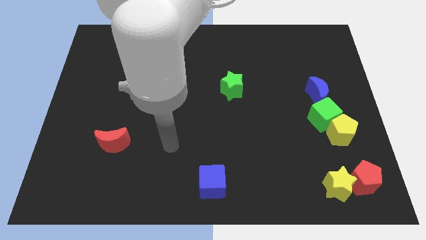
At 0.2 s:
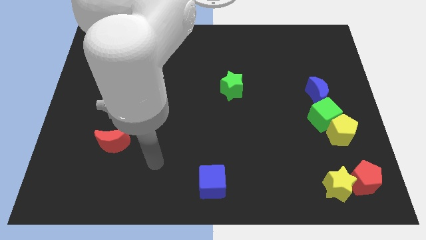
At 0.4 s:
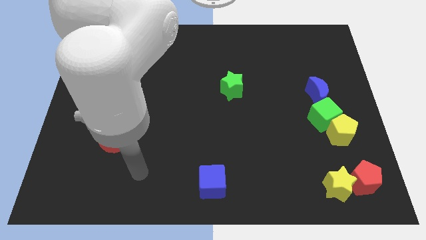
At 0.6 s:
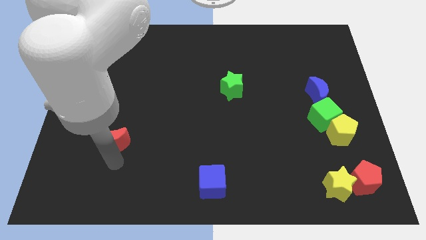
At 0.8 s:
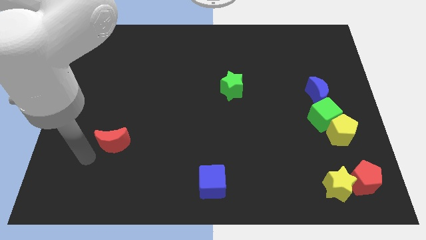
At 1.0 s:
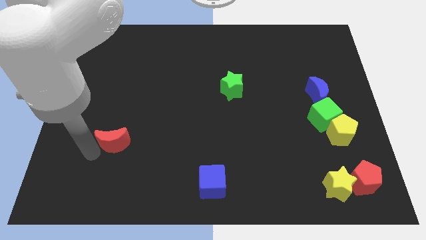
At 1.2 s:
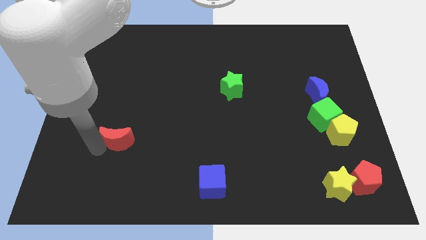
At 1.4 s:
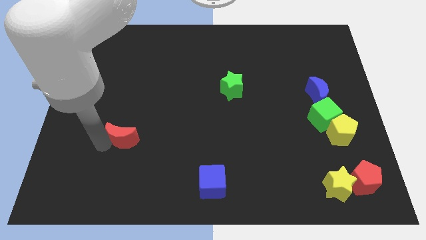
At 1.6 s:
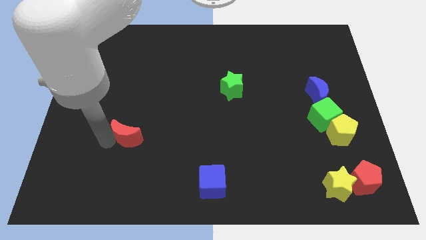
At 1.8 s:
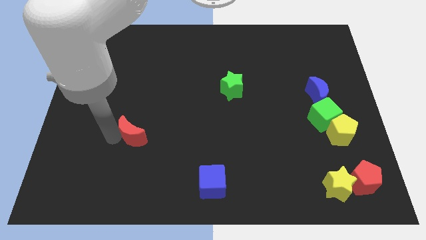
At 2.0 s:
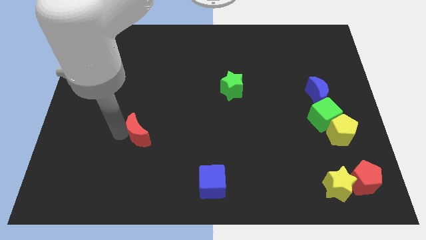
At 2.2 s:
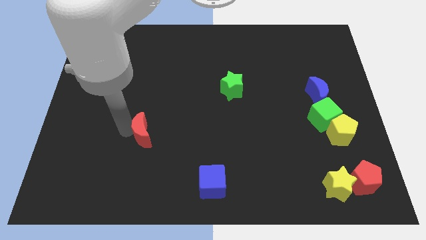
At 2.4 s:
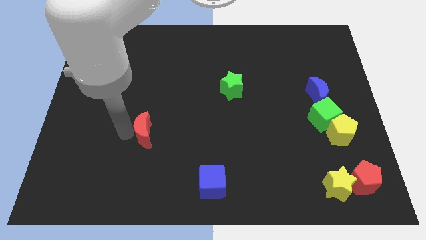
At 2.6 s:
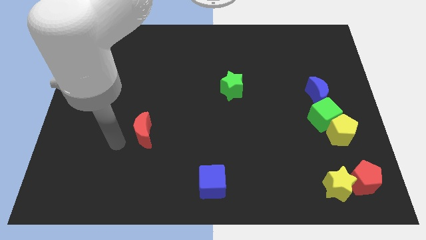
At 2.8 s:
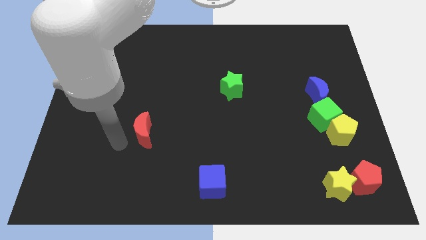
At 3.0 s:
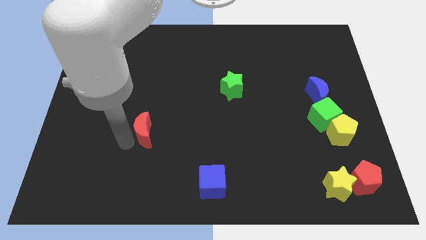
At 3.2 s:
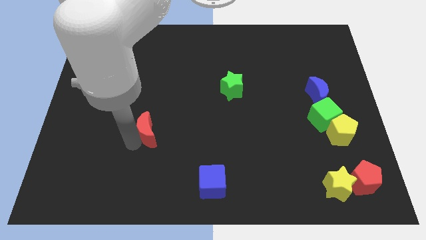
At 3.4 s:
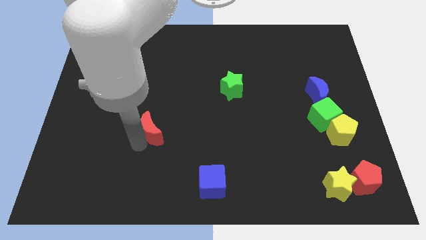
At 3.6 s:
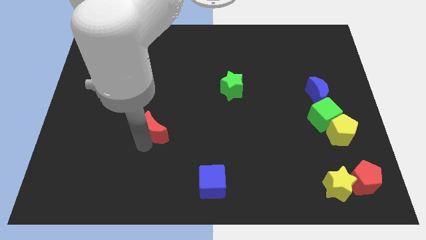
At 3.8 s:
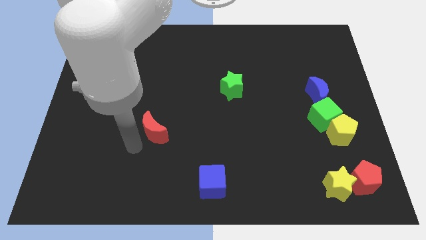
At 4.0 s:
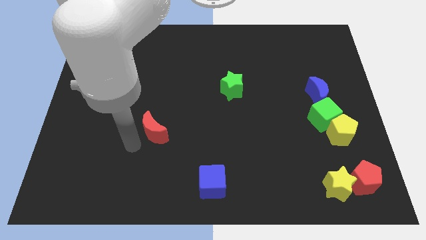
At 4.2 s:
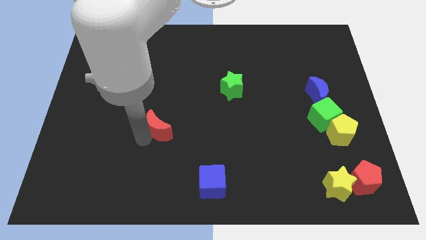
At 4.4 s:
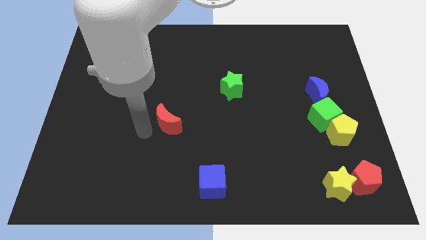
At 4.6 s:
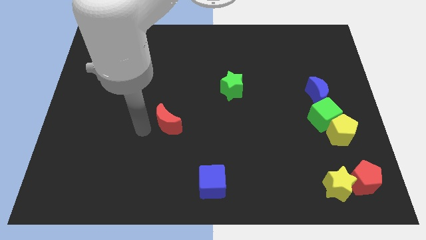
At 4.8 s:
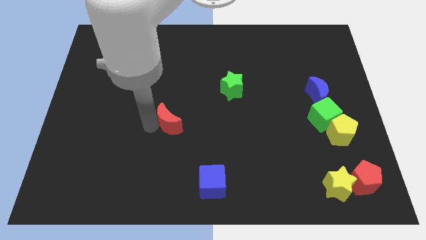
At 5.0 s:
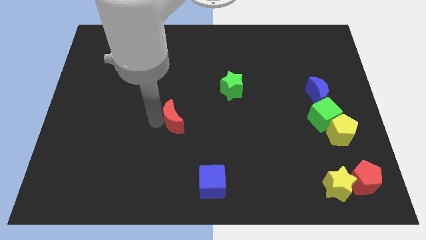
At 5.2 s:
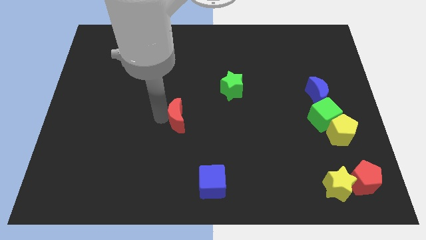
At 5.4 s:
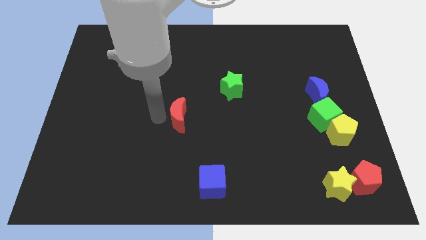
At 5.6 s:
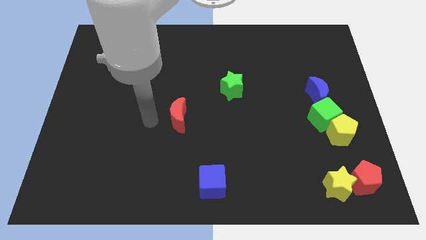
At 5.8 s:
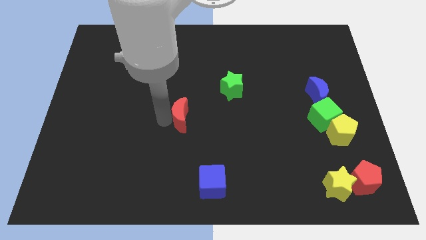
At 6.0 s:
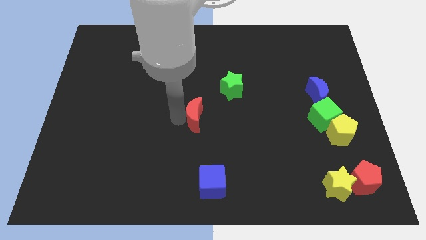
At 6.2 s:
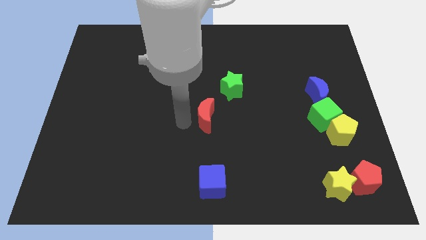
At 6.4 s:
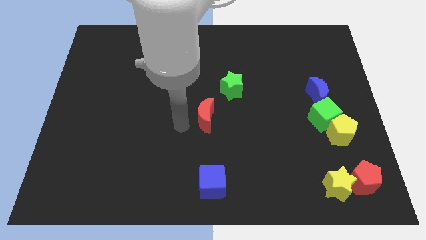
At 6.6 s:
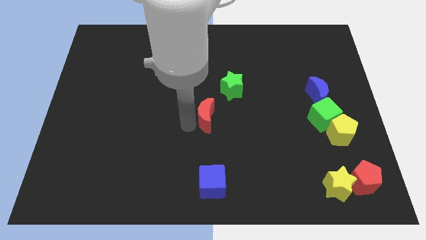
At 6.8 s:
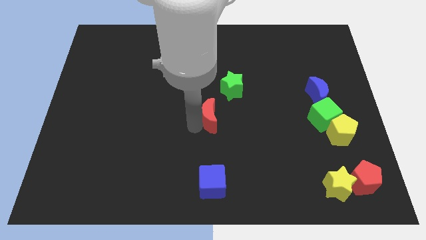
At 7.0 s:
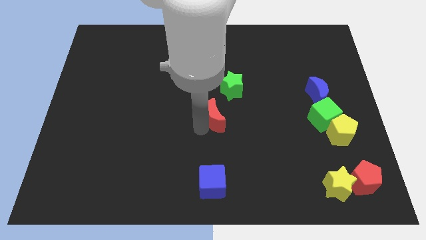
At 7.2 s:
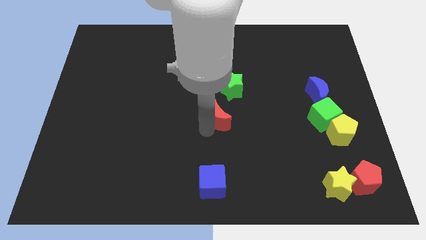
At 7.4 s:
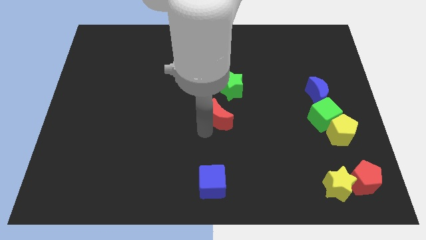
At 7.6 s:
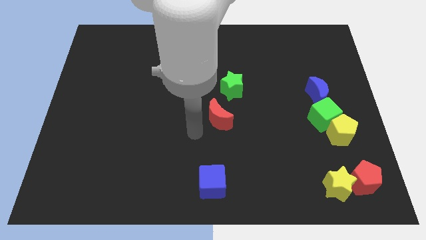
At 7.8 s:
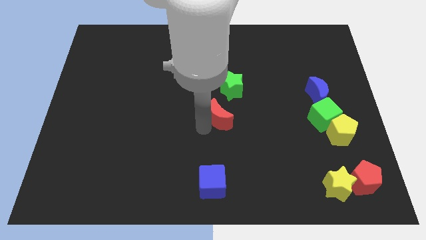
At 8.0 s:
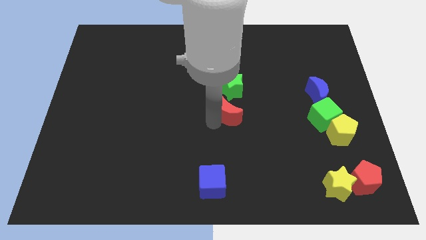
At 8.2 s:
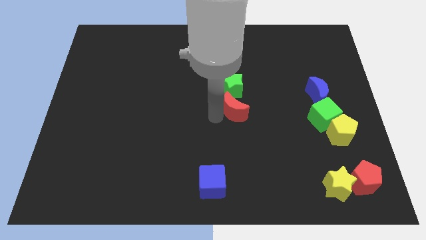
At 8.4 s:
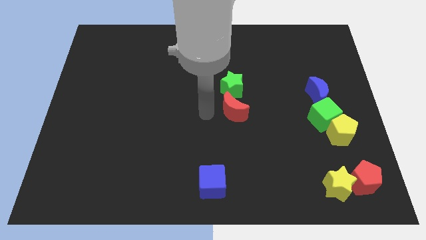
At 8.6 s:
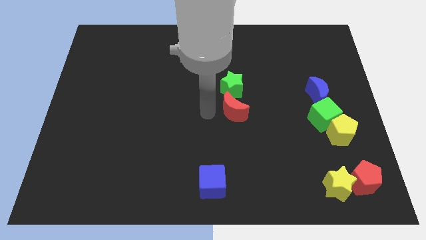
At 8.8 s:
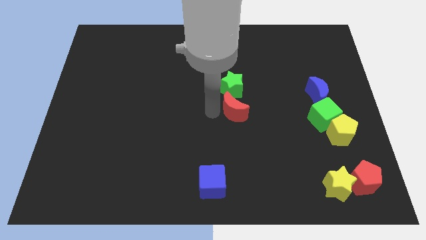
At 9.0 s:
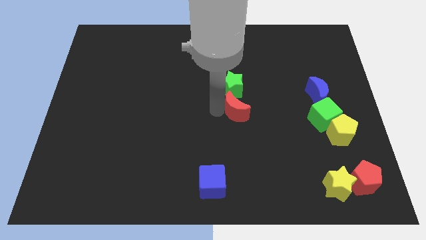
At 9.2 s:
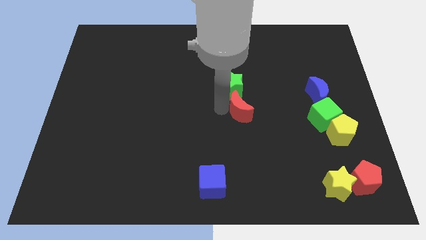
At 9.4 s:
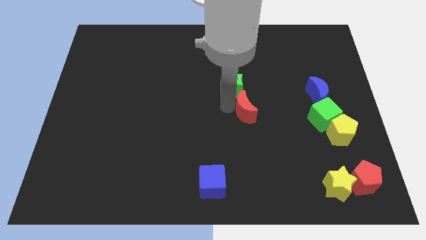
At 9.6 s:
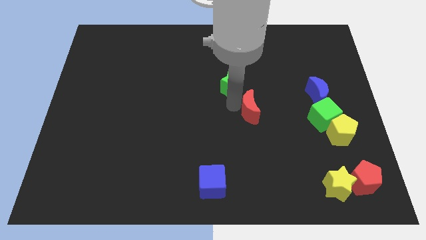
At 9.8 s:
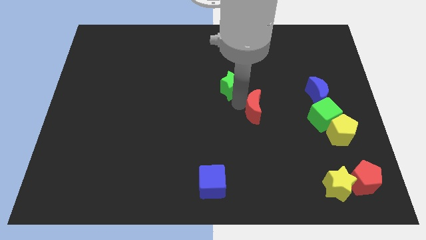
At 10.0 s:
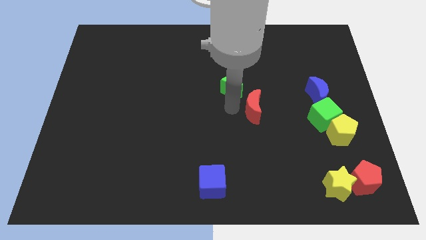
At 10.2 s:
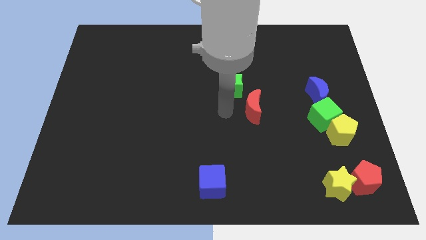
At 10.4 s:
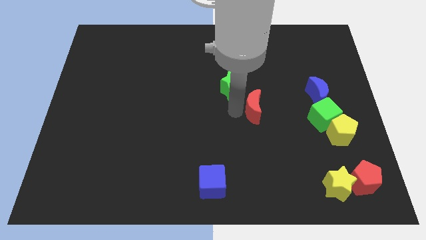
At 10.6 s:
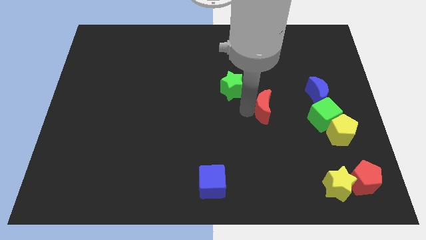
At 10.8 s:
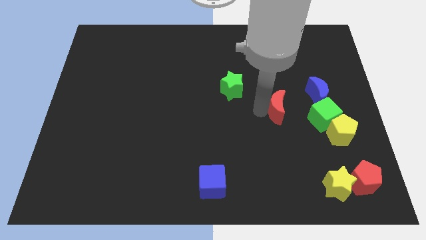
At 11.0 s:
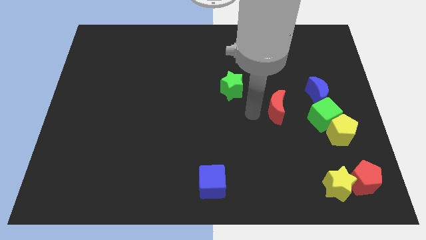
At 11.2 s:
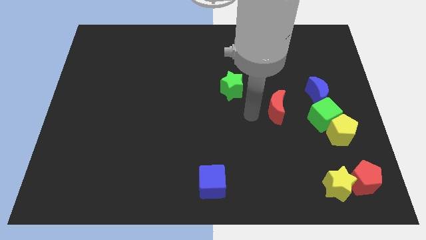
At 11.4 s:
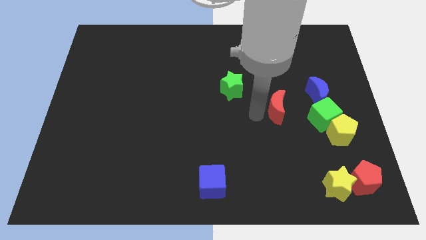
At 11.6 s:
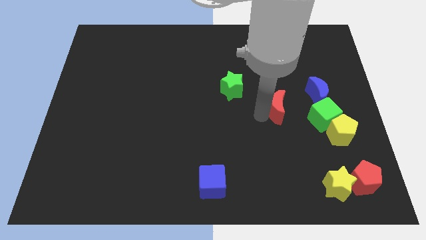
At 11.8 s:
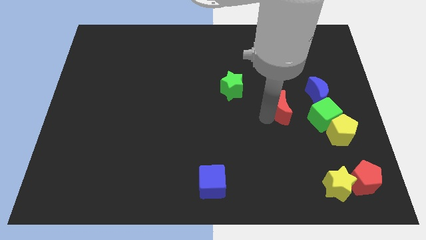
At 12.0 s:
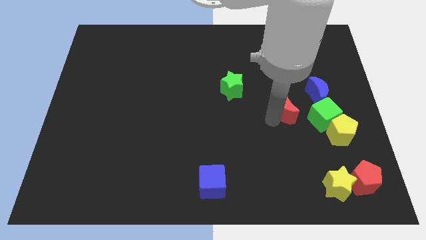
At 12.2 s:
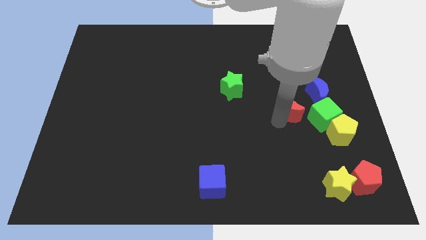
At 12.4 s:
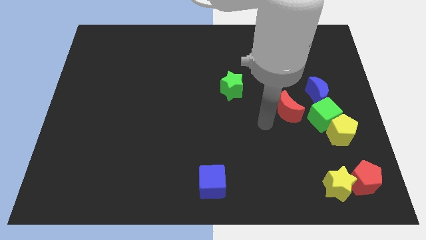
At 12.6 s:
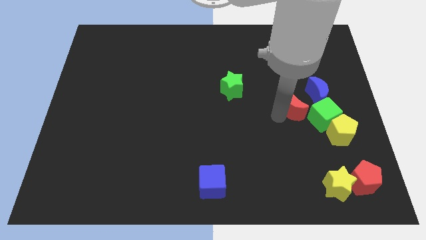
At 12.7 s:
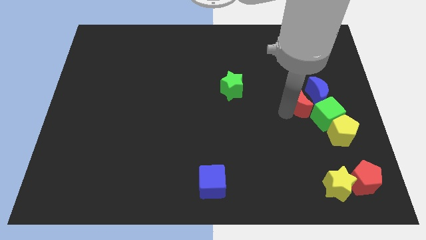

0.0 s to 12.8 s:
slide the red moon to the blue moon
